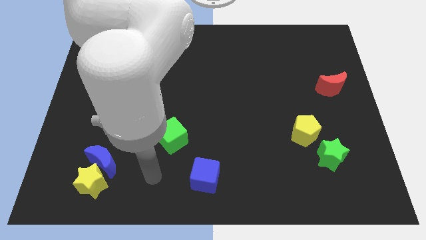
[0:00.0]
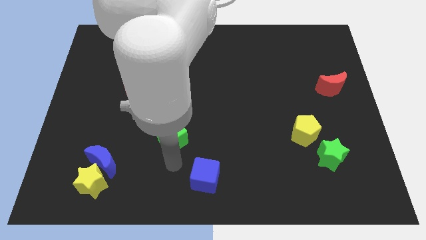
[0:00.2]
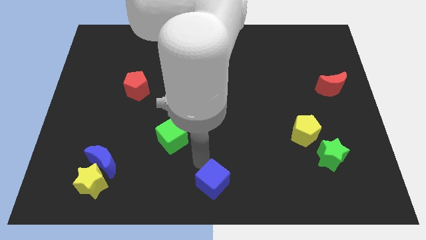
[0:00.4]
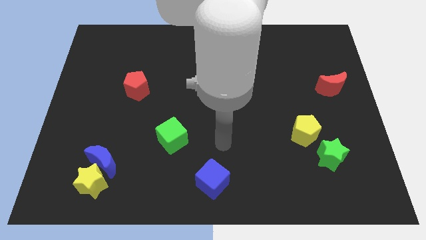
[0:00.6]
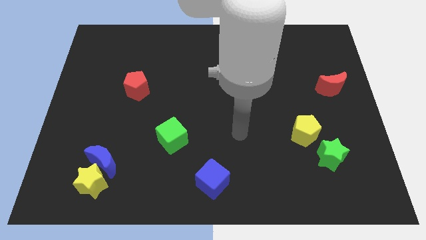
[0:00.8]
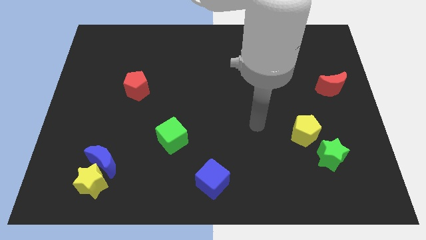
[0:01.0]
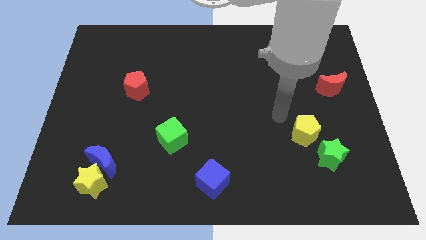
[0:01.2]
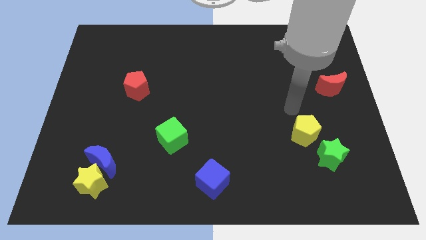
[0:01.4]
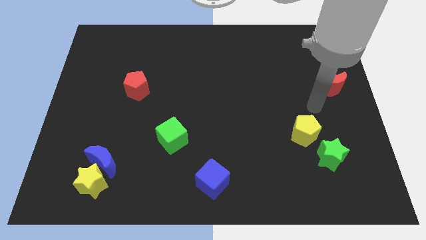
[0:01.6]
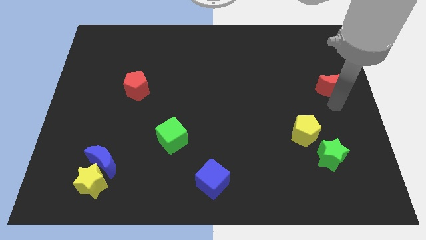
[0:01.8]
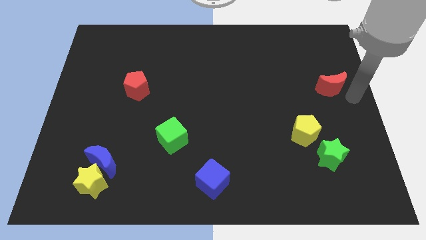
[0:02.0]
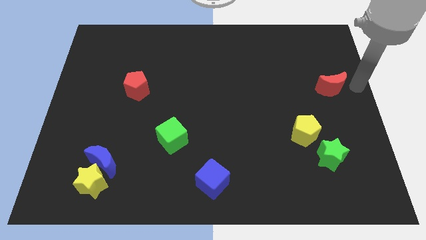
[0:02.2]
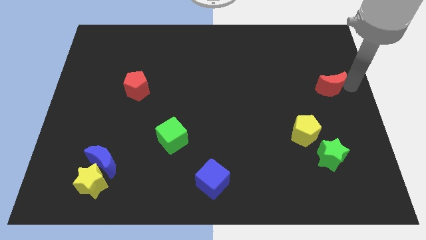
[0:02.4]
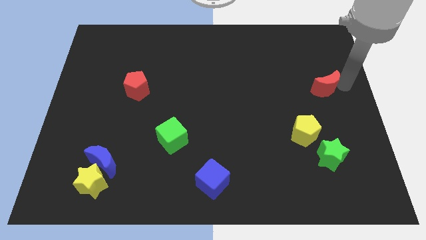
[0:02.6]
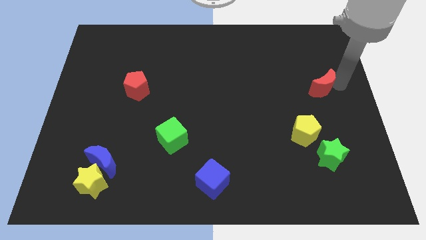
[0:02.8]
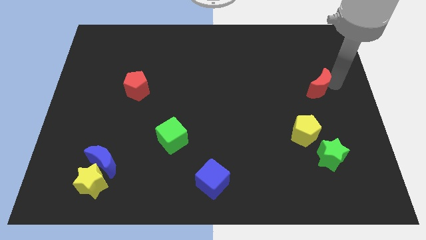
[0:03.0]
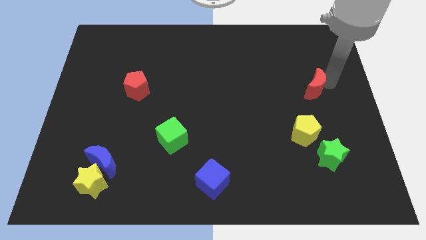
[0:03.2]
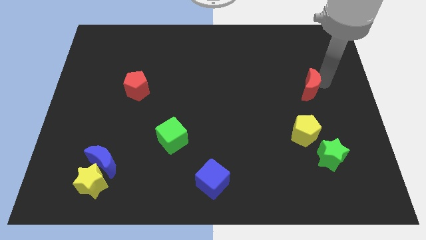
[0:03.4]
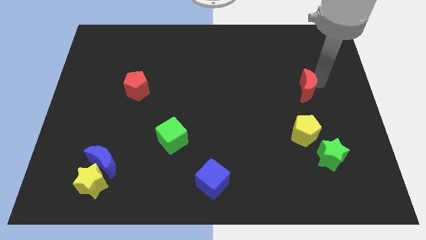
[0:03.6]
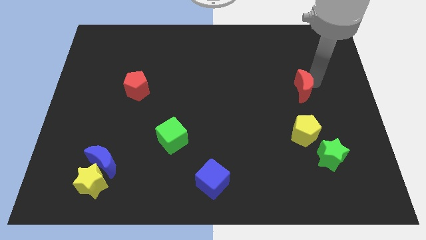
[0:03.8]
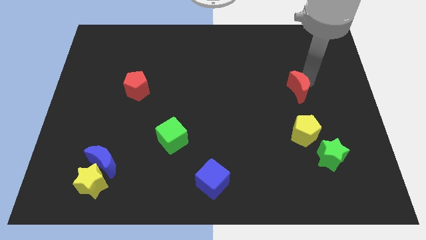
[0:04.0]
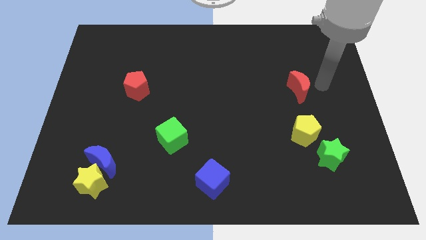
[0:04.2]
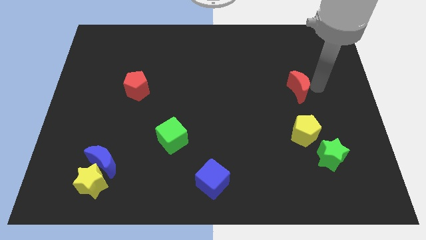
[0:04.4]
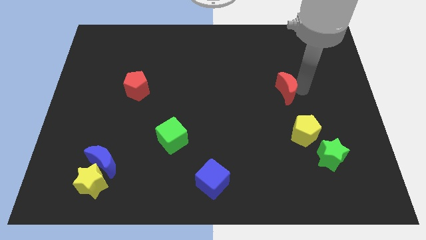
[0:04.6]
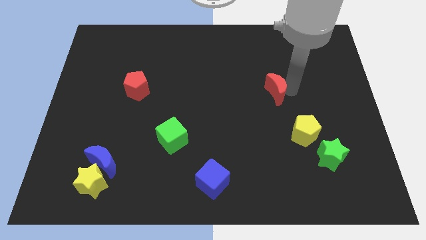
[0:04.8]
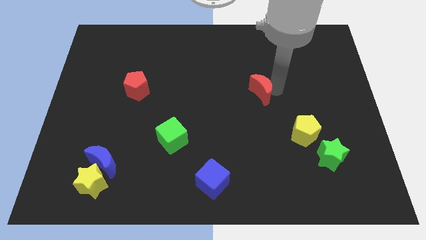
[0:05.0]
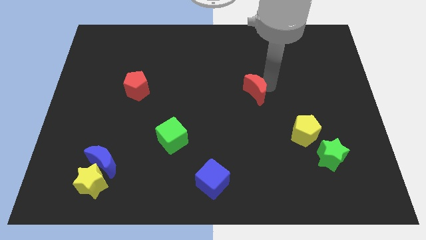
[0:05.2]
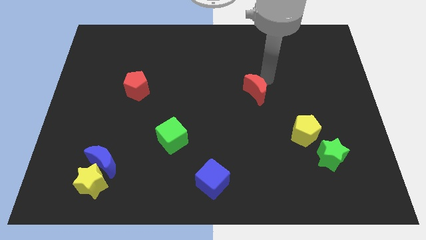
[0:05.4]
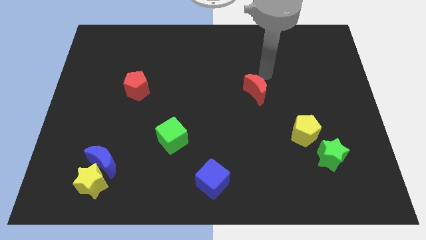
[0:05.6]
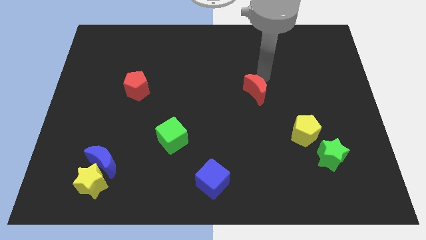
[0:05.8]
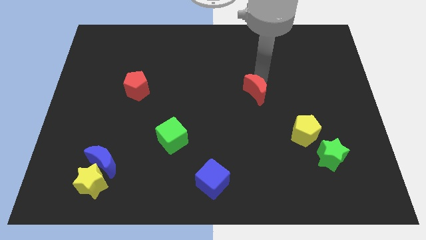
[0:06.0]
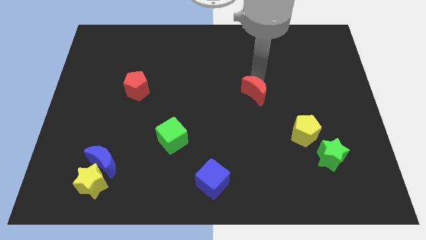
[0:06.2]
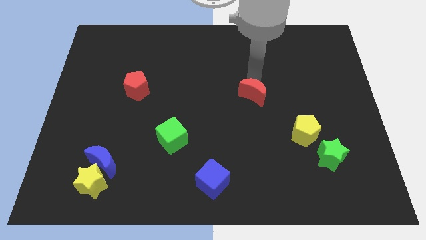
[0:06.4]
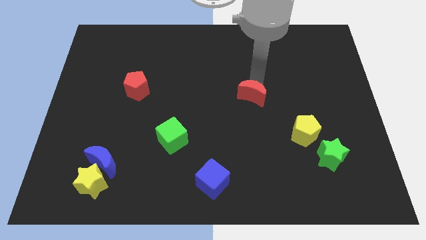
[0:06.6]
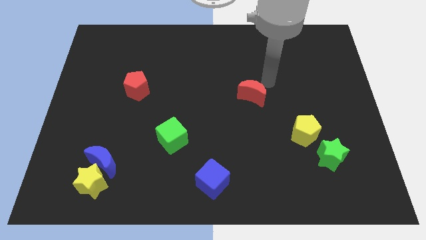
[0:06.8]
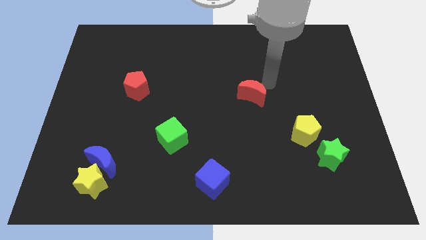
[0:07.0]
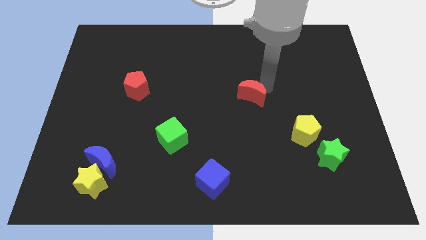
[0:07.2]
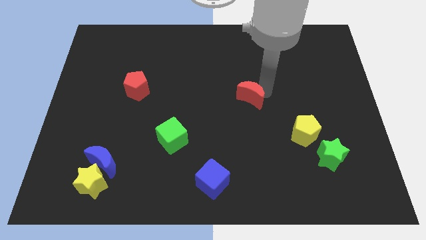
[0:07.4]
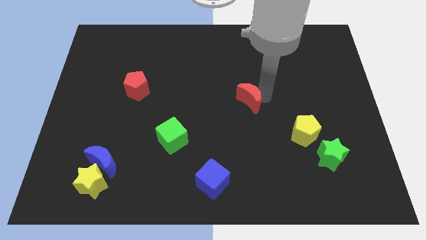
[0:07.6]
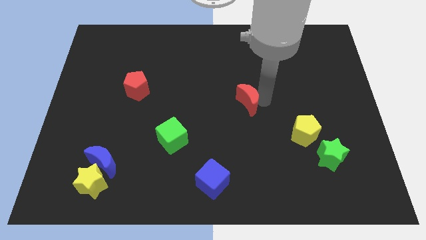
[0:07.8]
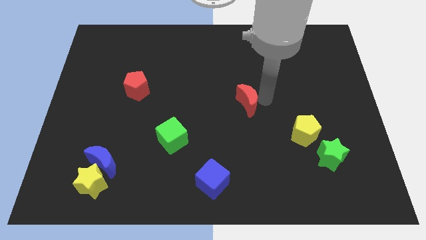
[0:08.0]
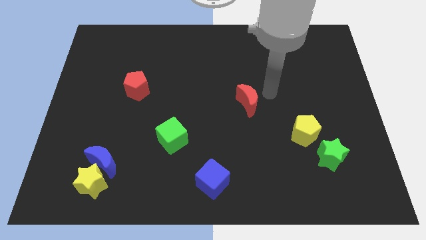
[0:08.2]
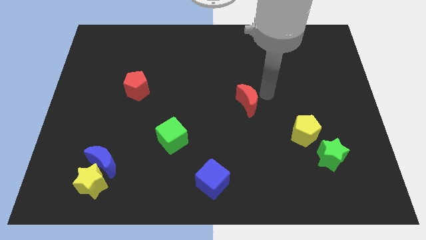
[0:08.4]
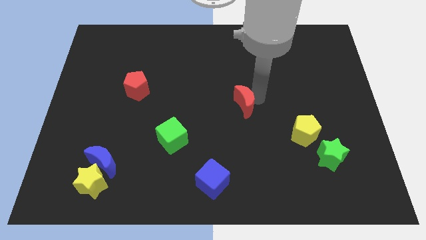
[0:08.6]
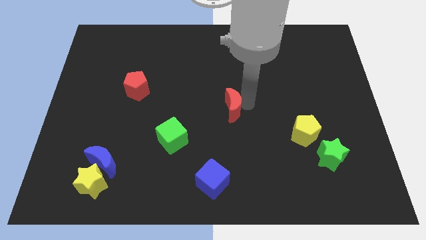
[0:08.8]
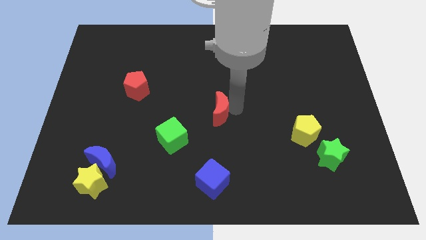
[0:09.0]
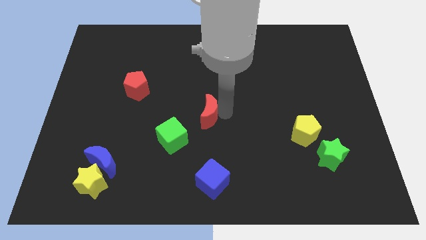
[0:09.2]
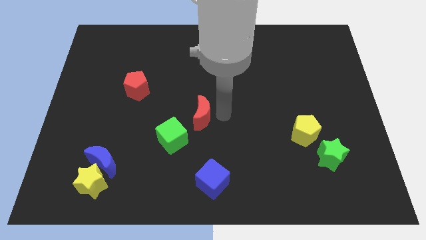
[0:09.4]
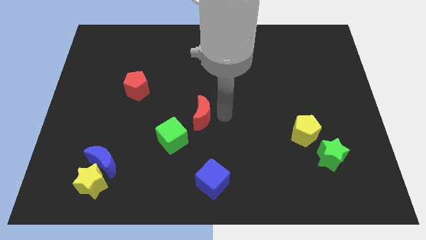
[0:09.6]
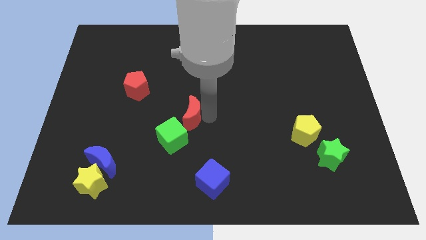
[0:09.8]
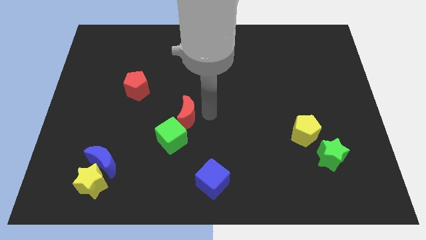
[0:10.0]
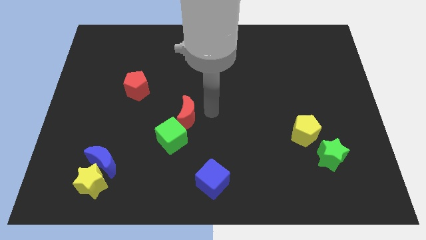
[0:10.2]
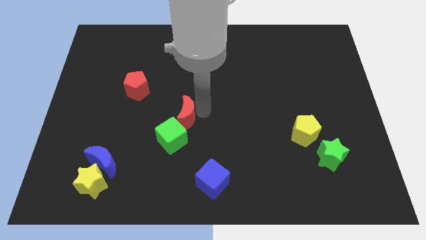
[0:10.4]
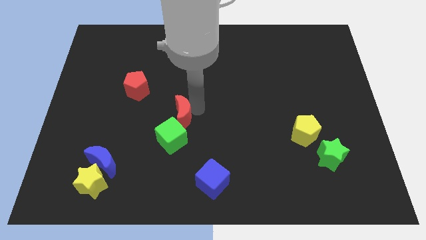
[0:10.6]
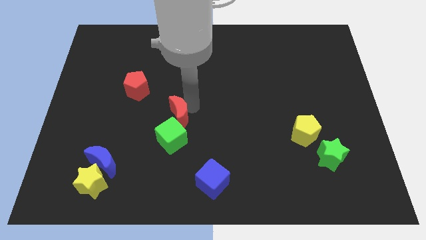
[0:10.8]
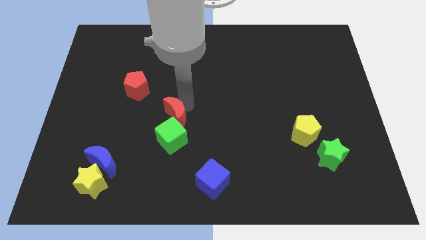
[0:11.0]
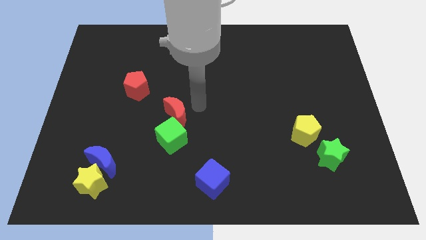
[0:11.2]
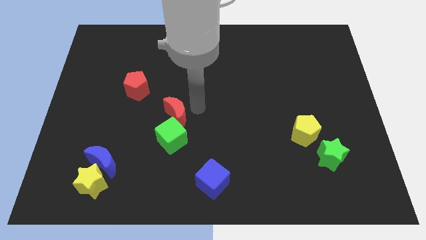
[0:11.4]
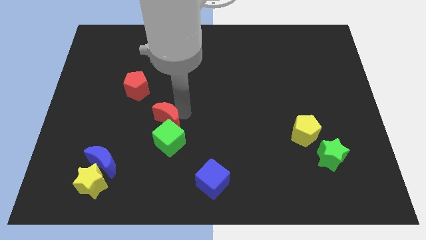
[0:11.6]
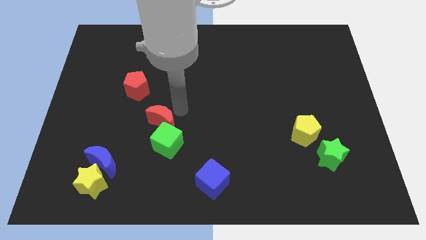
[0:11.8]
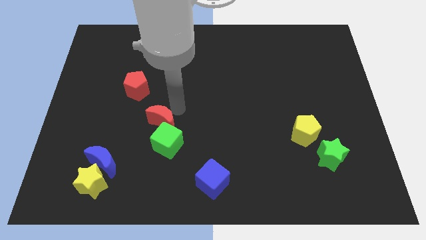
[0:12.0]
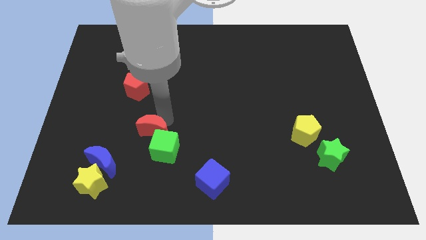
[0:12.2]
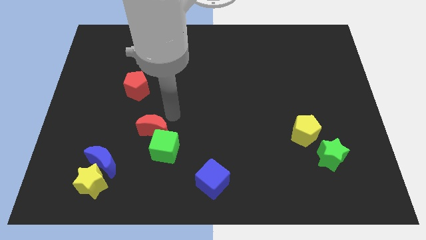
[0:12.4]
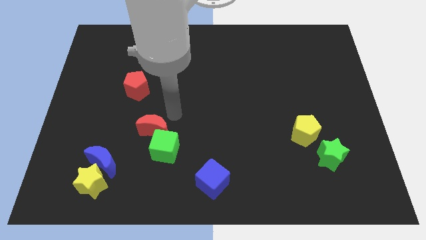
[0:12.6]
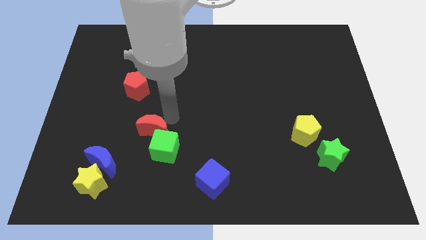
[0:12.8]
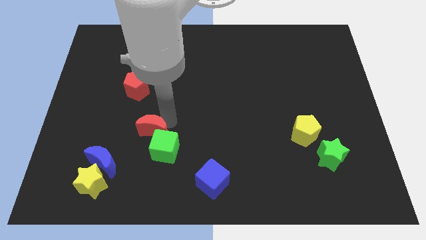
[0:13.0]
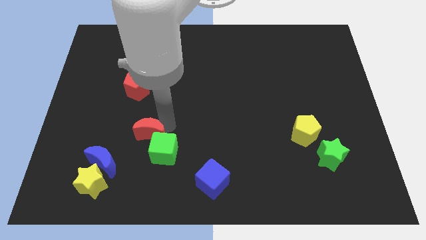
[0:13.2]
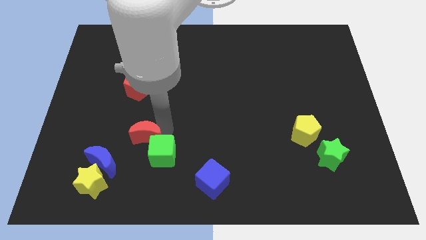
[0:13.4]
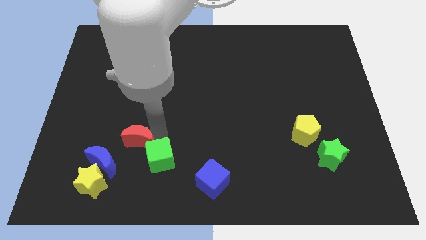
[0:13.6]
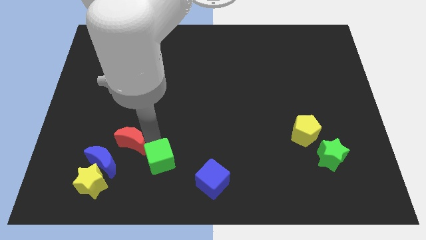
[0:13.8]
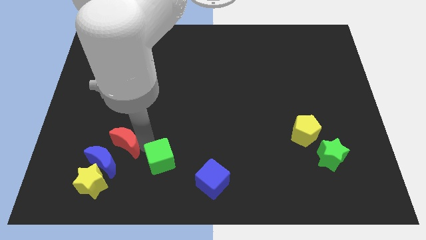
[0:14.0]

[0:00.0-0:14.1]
push the red moon to the blue moon

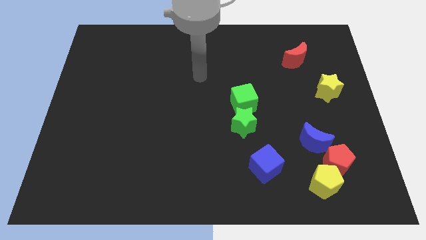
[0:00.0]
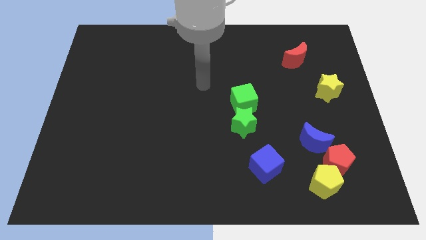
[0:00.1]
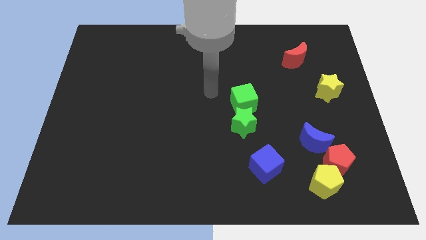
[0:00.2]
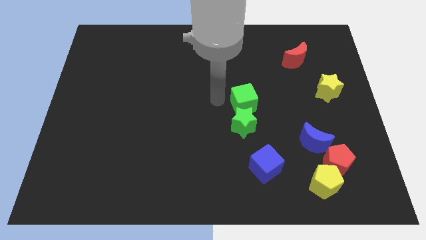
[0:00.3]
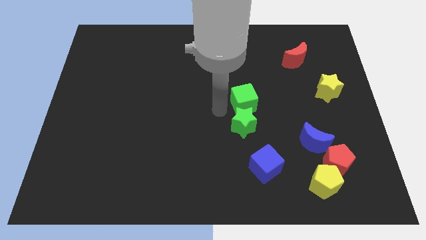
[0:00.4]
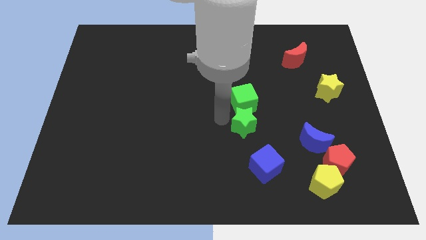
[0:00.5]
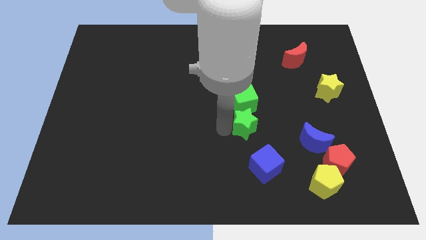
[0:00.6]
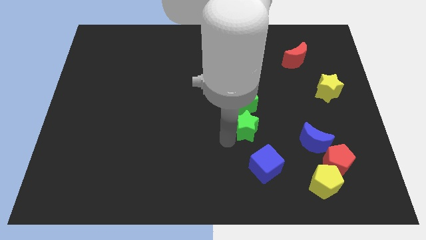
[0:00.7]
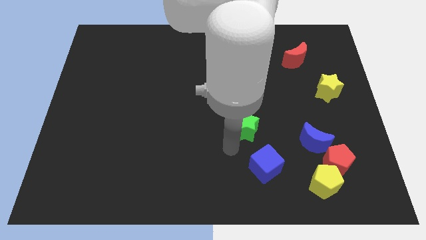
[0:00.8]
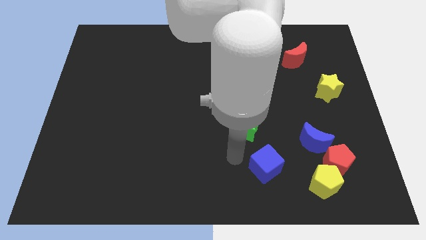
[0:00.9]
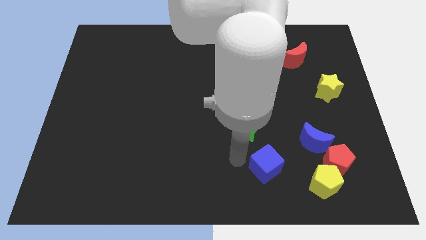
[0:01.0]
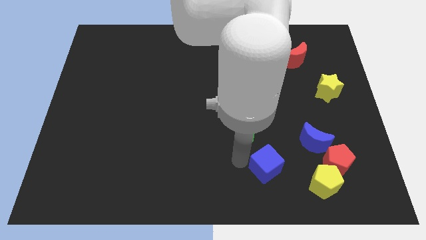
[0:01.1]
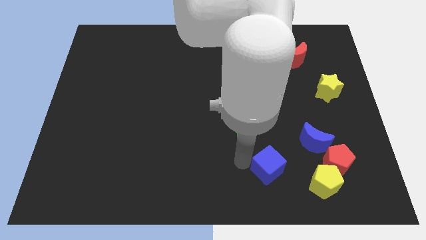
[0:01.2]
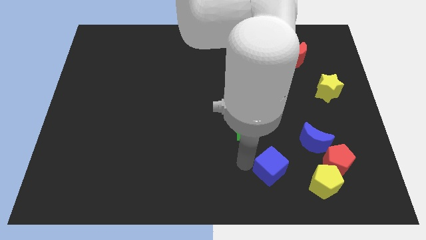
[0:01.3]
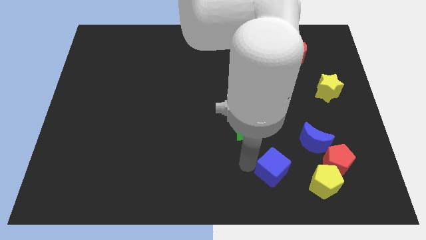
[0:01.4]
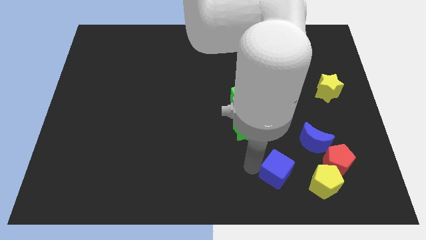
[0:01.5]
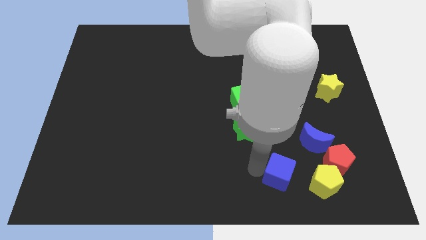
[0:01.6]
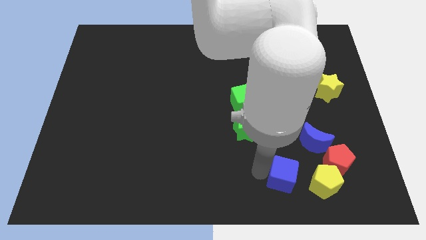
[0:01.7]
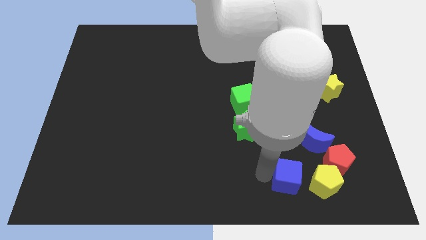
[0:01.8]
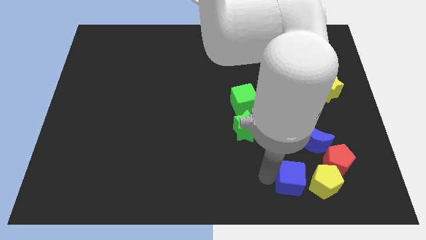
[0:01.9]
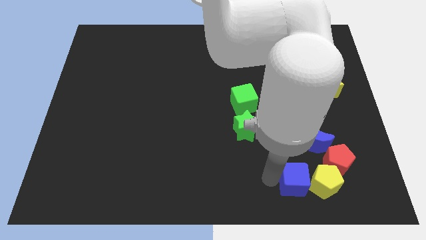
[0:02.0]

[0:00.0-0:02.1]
put the blue cube close to the yellow pentagon
